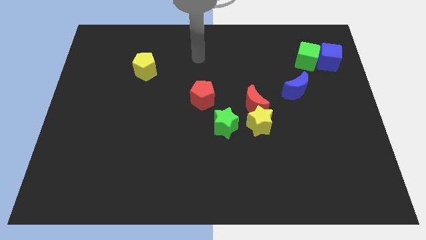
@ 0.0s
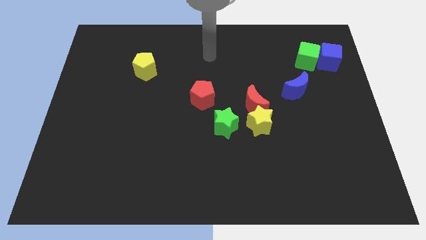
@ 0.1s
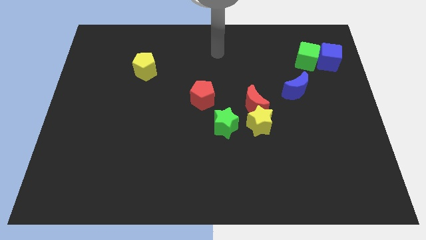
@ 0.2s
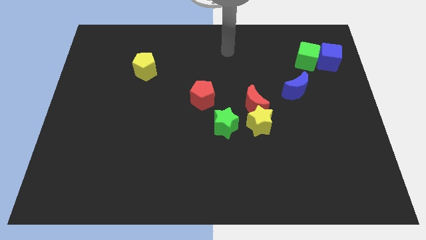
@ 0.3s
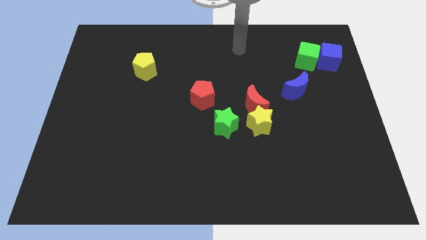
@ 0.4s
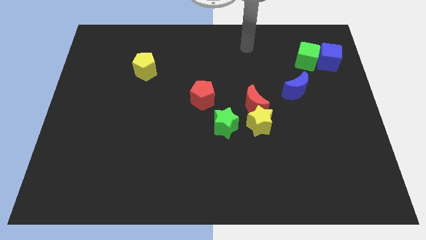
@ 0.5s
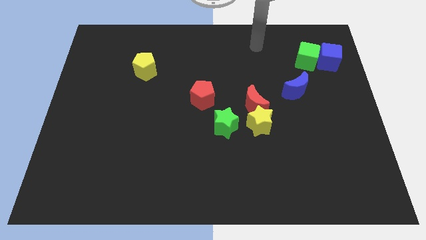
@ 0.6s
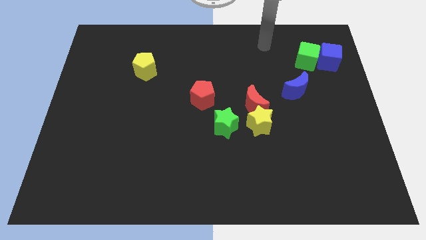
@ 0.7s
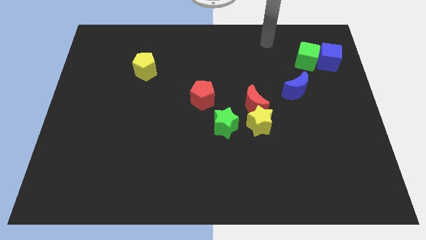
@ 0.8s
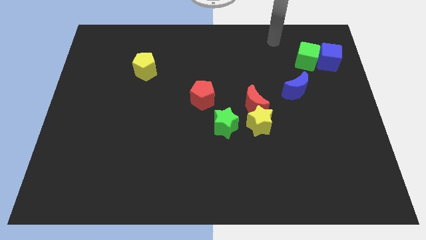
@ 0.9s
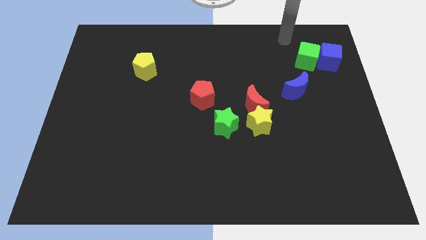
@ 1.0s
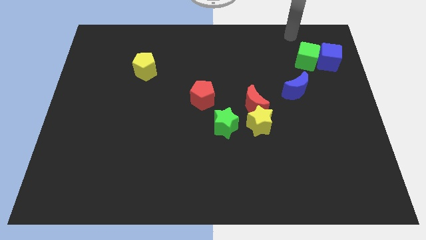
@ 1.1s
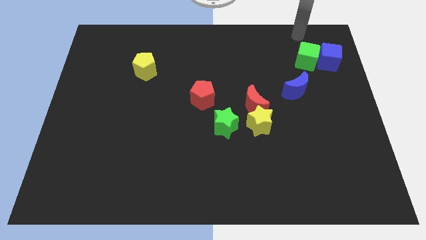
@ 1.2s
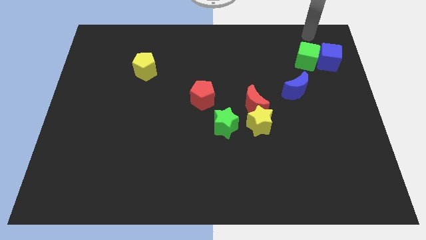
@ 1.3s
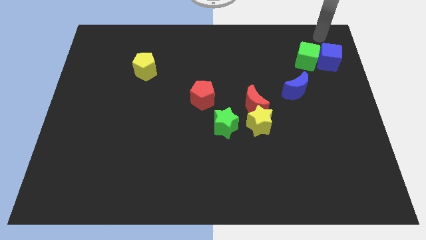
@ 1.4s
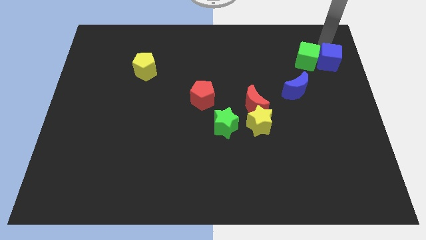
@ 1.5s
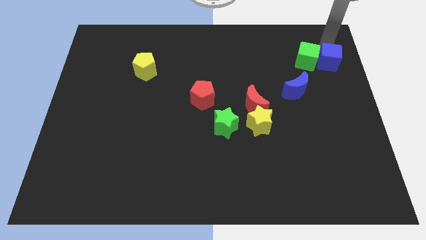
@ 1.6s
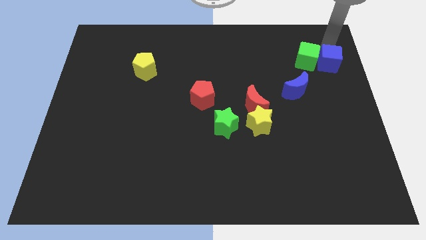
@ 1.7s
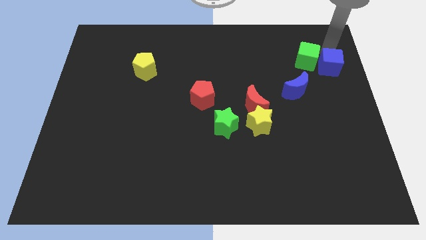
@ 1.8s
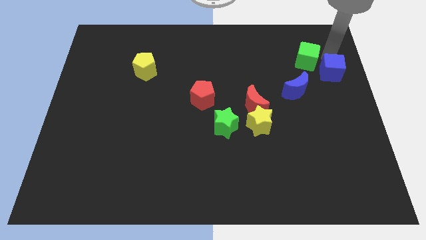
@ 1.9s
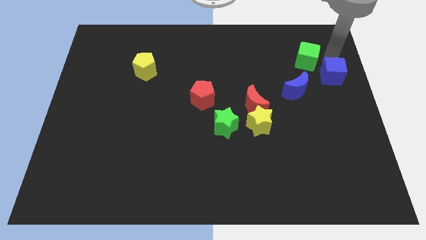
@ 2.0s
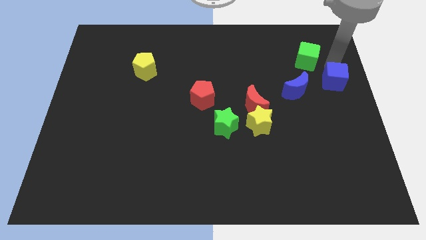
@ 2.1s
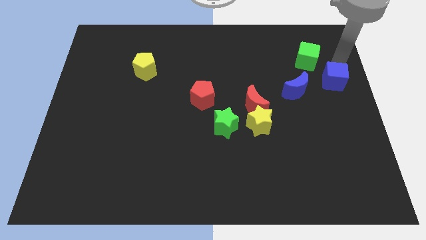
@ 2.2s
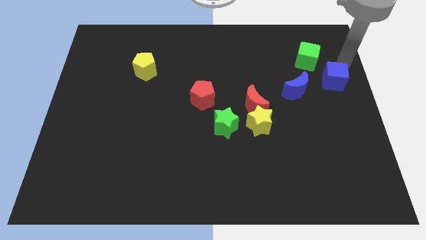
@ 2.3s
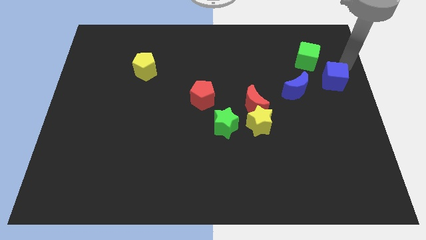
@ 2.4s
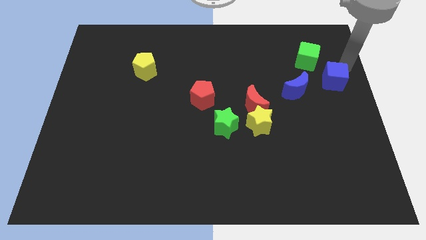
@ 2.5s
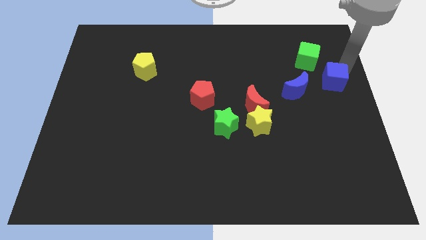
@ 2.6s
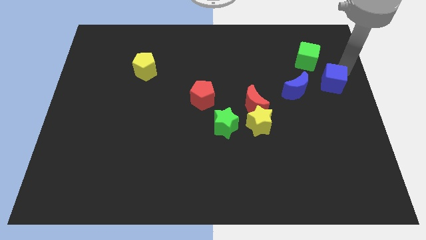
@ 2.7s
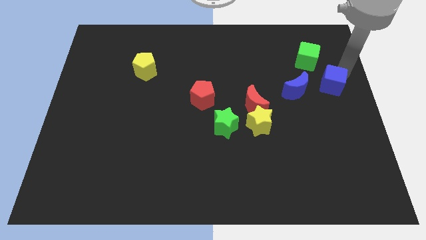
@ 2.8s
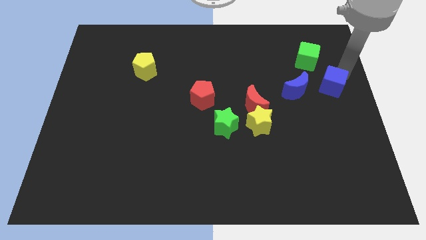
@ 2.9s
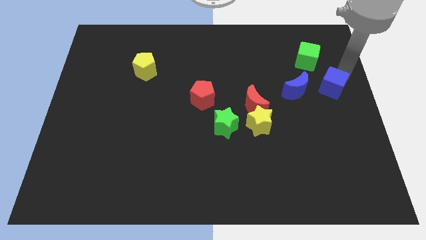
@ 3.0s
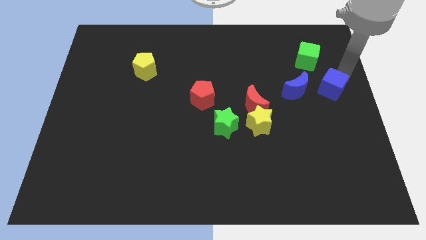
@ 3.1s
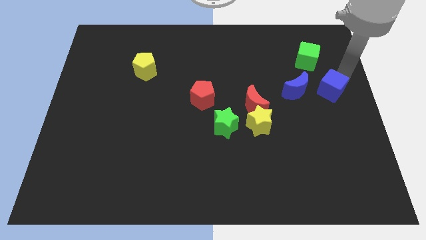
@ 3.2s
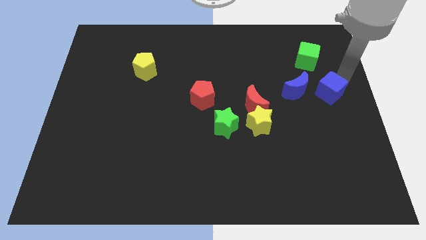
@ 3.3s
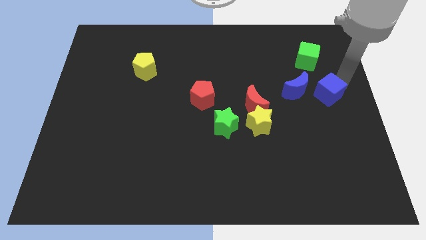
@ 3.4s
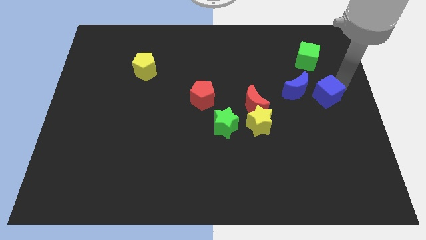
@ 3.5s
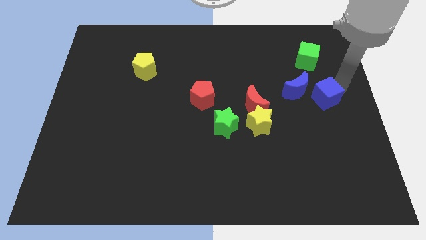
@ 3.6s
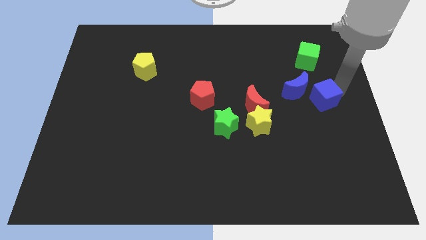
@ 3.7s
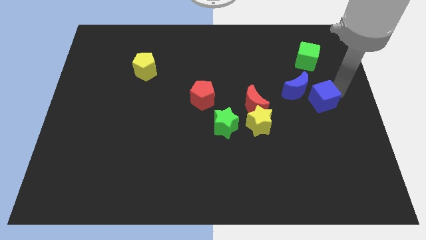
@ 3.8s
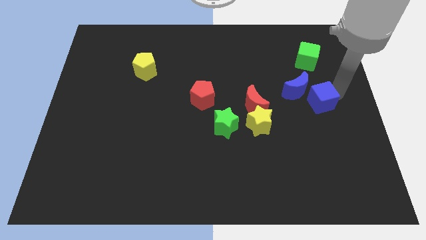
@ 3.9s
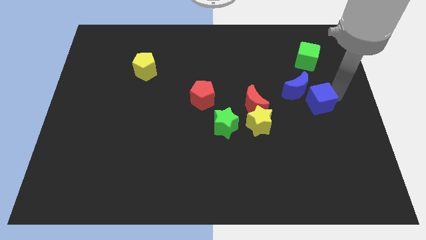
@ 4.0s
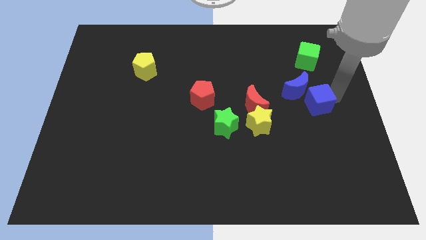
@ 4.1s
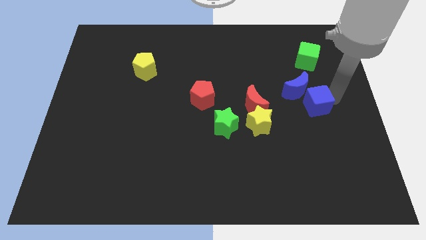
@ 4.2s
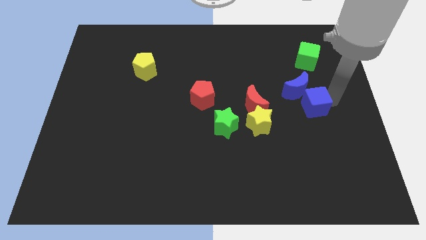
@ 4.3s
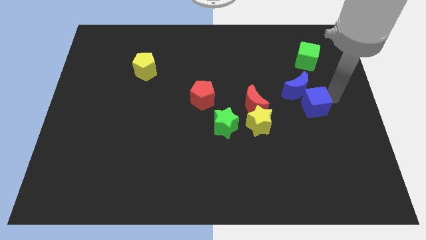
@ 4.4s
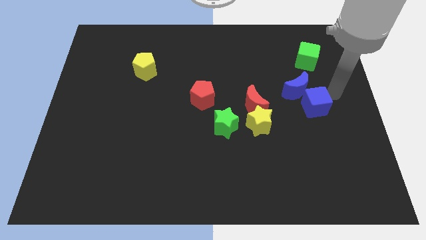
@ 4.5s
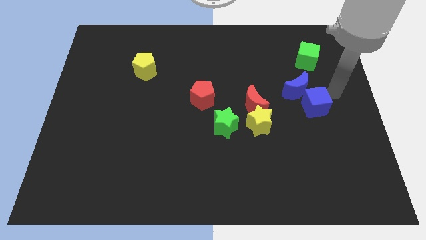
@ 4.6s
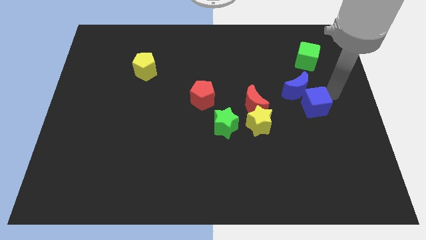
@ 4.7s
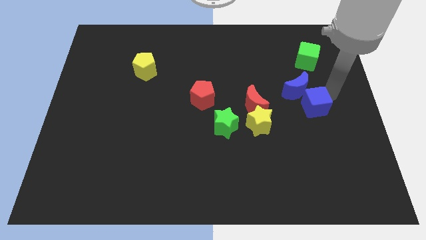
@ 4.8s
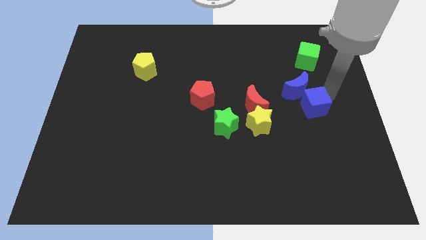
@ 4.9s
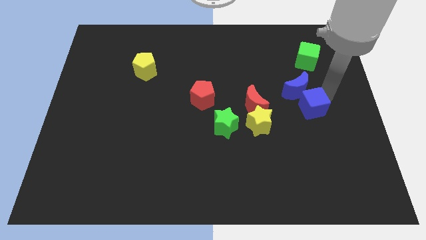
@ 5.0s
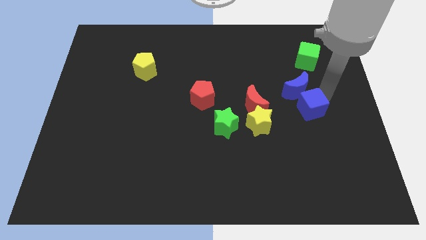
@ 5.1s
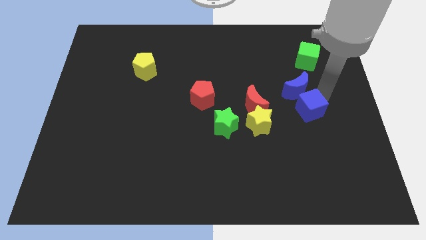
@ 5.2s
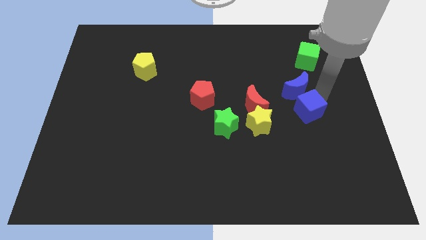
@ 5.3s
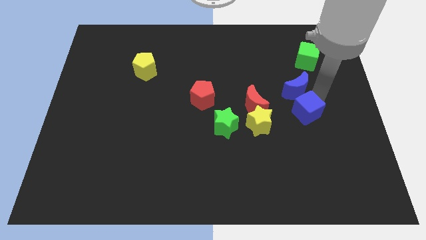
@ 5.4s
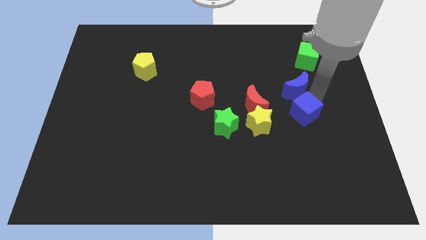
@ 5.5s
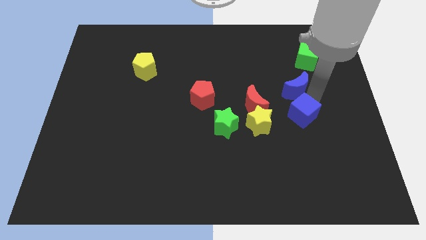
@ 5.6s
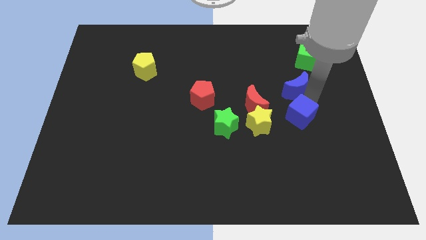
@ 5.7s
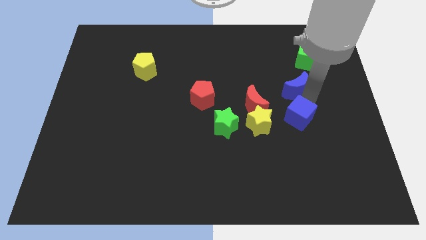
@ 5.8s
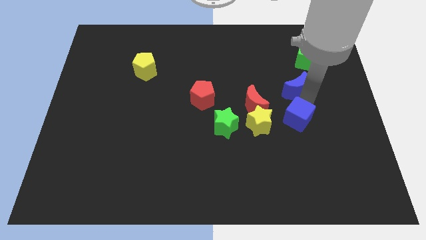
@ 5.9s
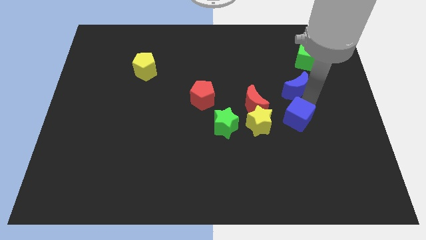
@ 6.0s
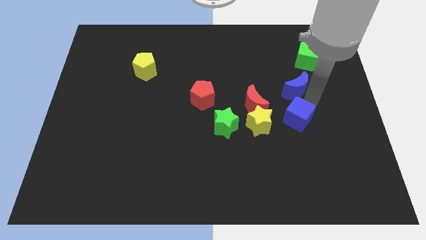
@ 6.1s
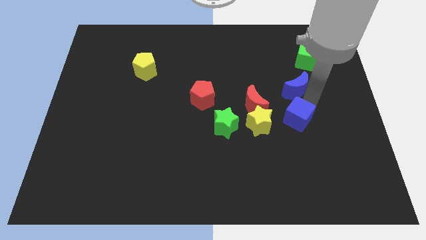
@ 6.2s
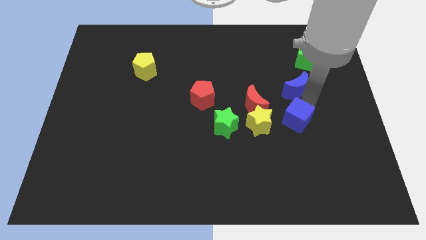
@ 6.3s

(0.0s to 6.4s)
slide the blue cube down and to the left diagonally

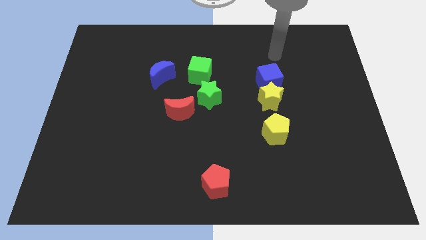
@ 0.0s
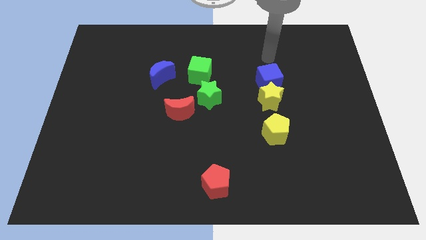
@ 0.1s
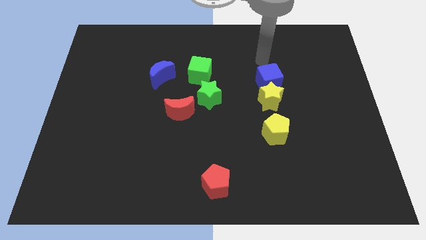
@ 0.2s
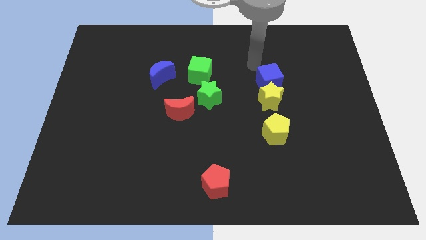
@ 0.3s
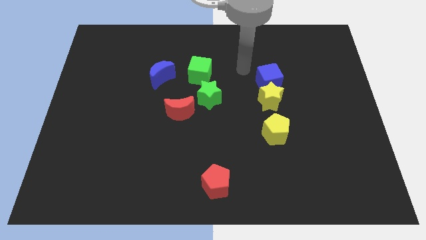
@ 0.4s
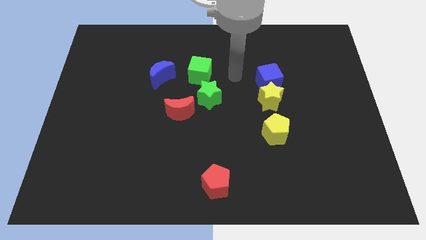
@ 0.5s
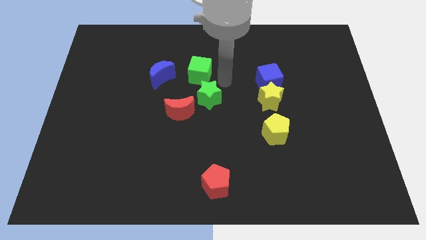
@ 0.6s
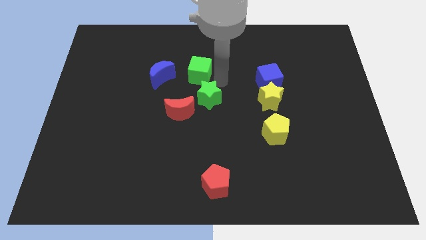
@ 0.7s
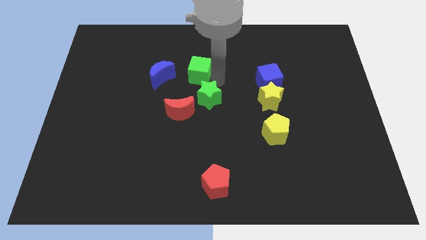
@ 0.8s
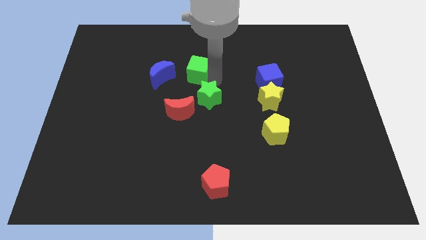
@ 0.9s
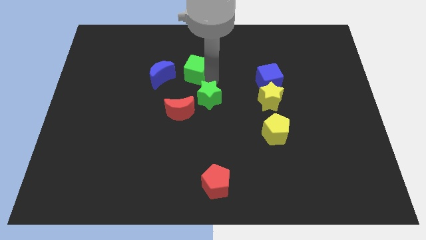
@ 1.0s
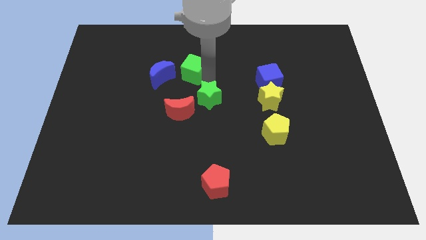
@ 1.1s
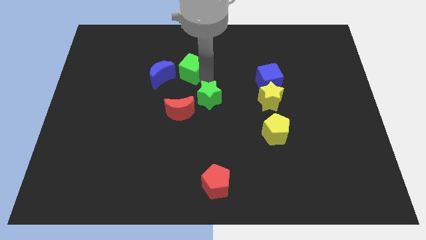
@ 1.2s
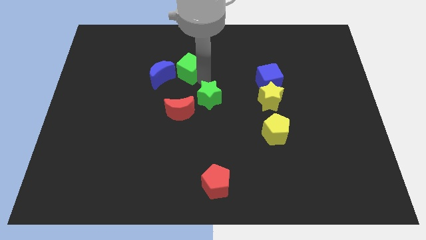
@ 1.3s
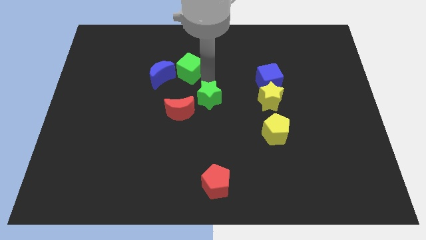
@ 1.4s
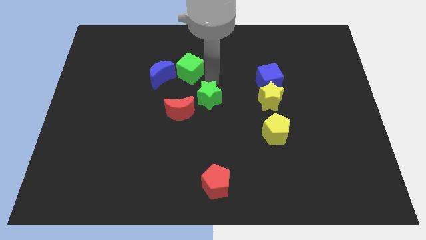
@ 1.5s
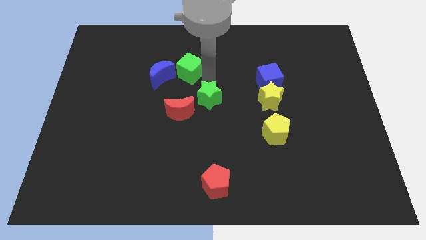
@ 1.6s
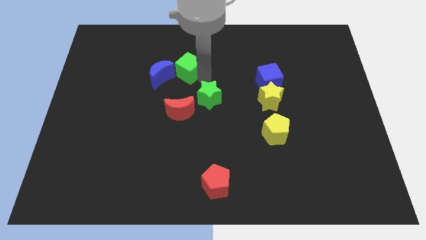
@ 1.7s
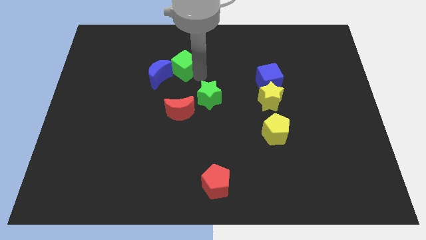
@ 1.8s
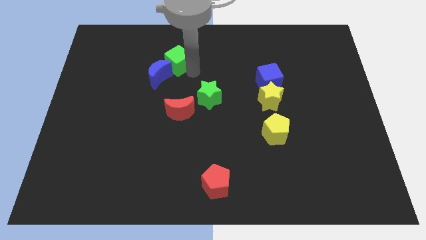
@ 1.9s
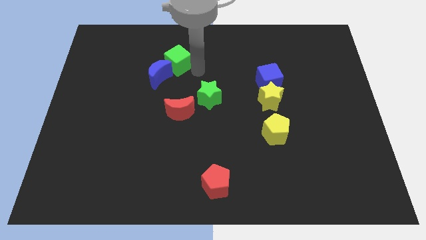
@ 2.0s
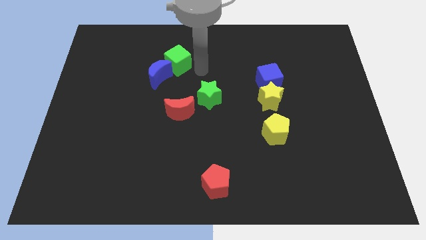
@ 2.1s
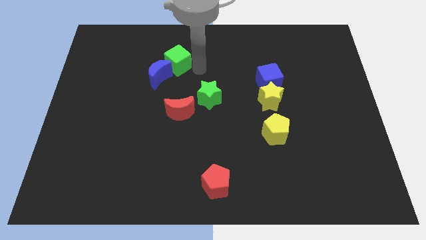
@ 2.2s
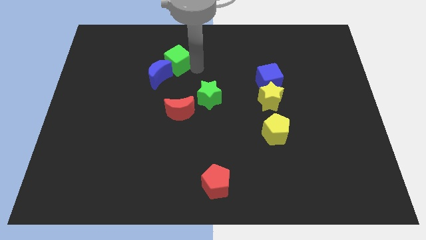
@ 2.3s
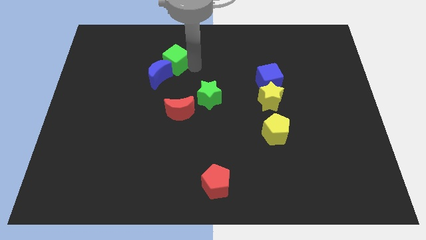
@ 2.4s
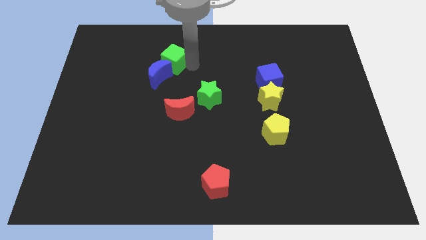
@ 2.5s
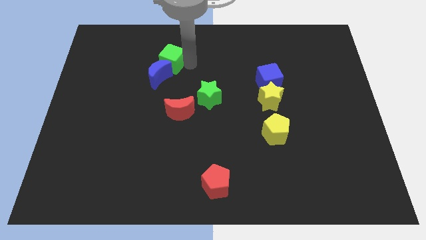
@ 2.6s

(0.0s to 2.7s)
move the green cube to the left slightly
